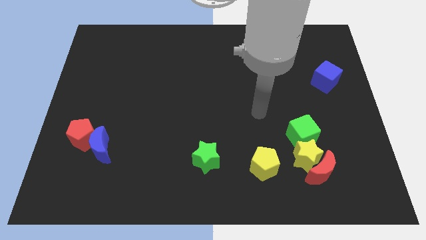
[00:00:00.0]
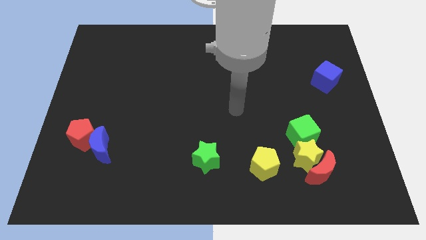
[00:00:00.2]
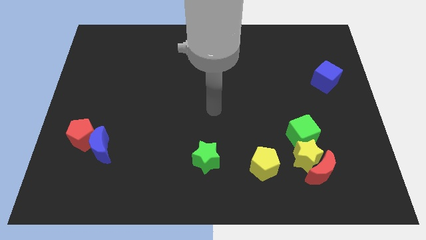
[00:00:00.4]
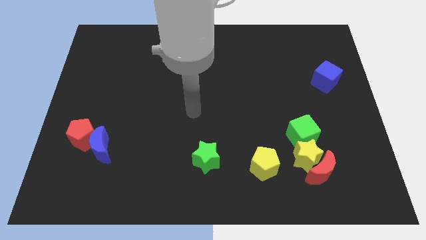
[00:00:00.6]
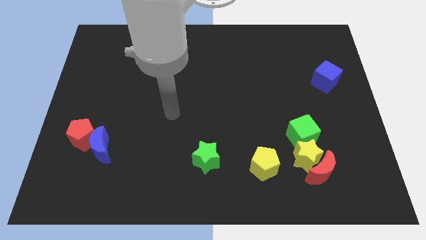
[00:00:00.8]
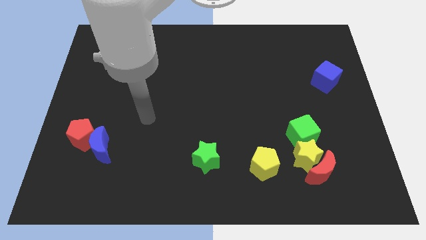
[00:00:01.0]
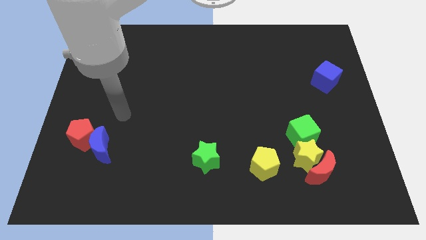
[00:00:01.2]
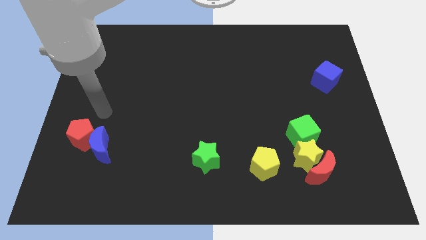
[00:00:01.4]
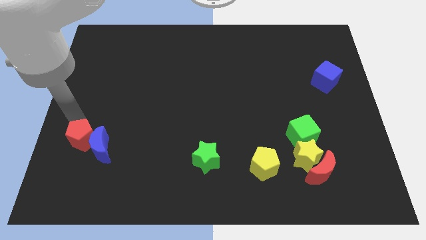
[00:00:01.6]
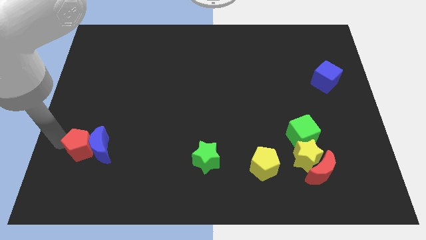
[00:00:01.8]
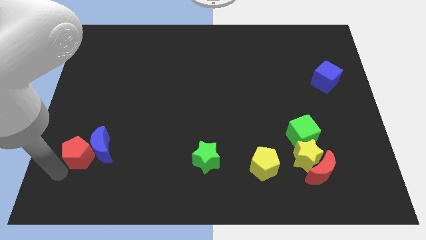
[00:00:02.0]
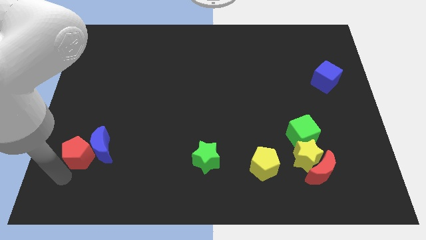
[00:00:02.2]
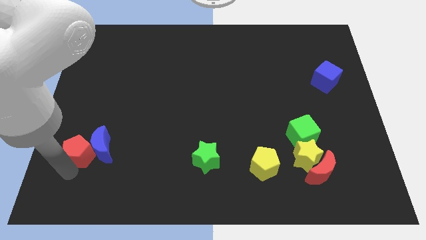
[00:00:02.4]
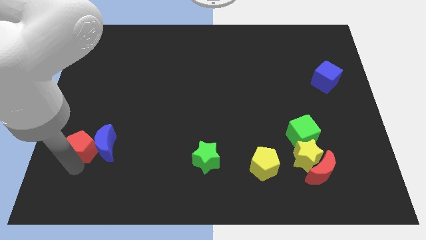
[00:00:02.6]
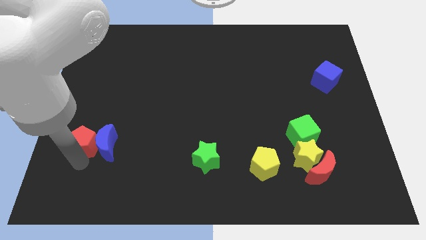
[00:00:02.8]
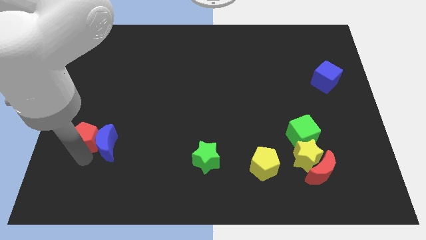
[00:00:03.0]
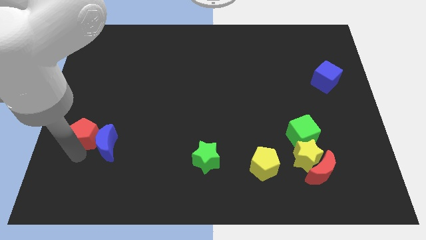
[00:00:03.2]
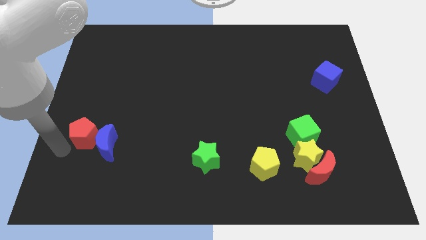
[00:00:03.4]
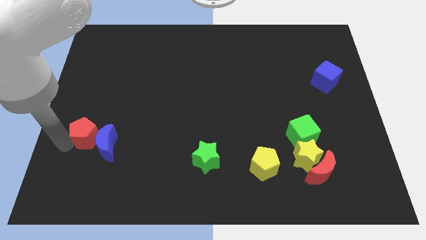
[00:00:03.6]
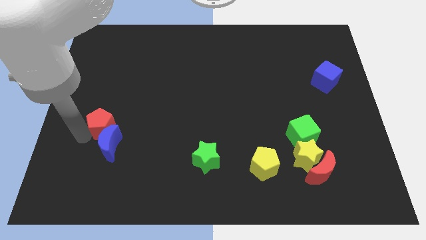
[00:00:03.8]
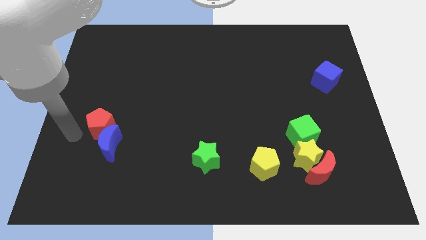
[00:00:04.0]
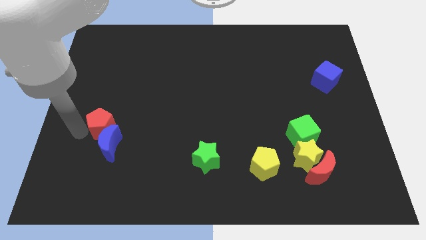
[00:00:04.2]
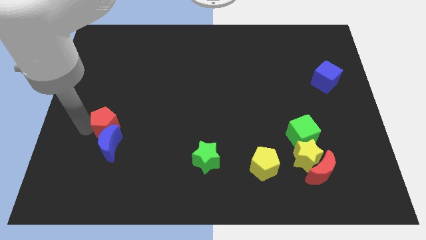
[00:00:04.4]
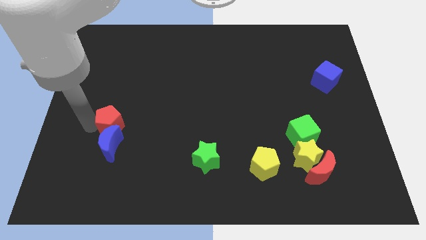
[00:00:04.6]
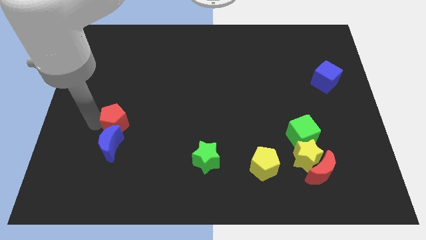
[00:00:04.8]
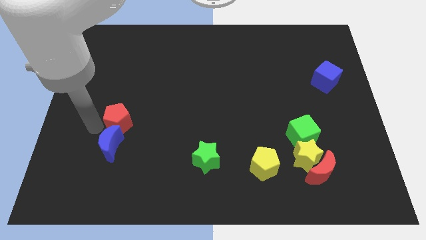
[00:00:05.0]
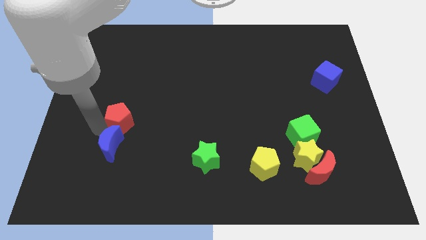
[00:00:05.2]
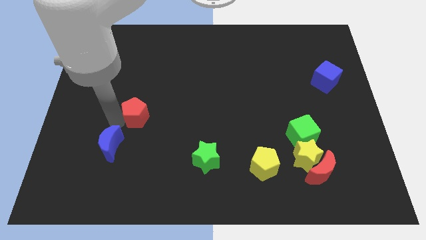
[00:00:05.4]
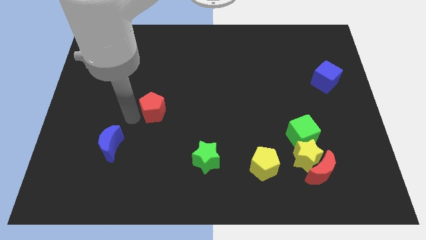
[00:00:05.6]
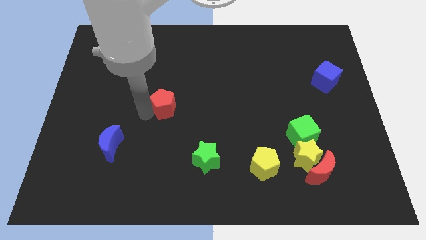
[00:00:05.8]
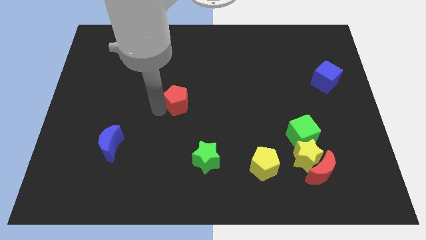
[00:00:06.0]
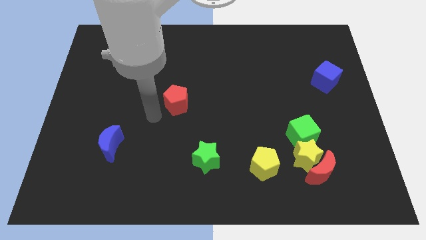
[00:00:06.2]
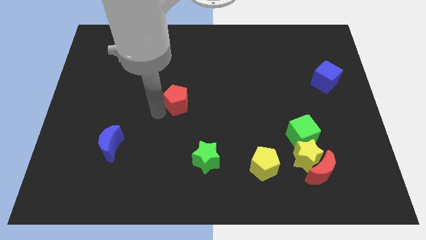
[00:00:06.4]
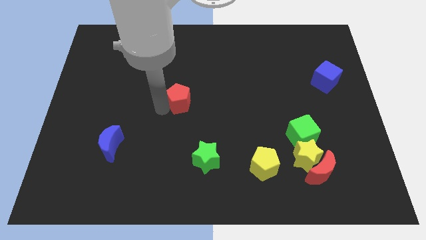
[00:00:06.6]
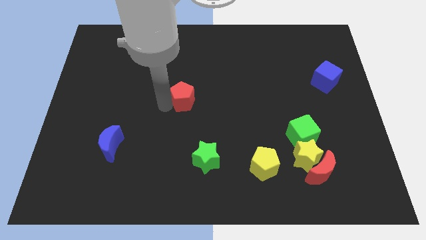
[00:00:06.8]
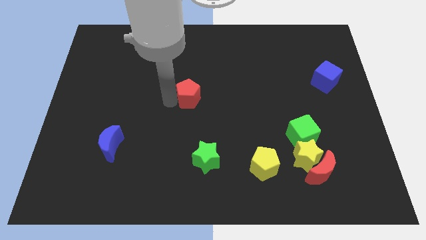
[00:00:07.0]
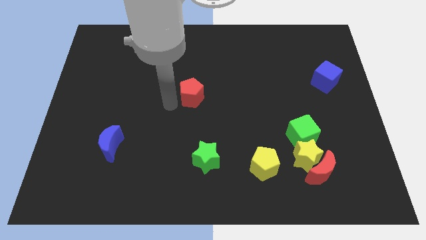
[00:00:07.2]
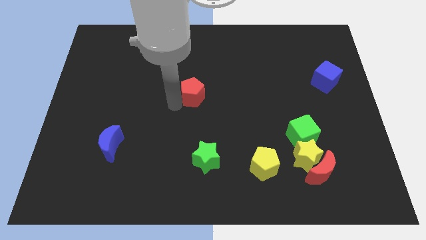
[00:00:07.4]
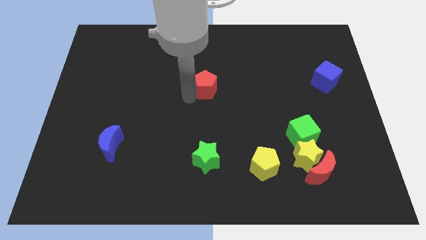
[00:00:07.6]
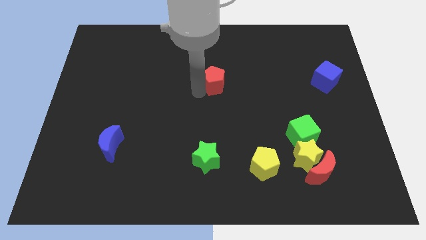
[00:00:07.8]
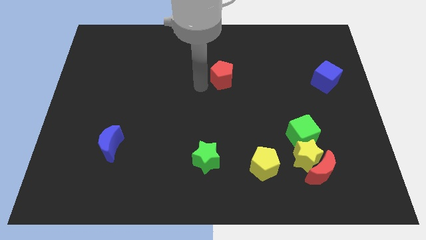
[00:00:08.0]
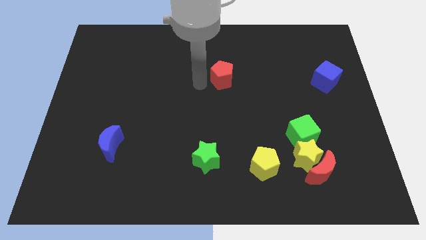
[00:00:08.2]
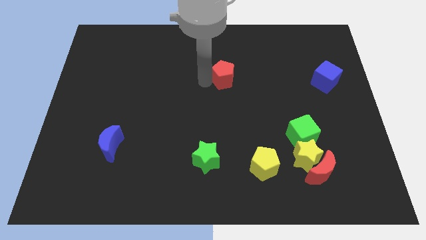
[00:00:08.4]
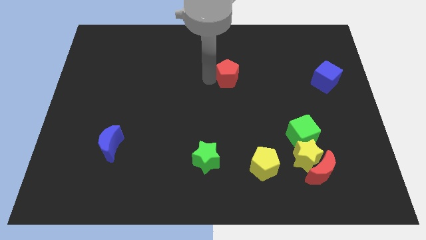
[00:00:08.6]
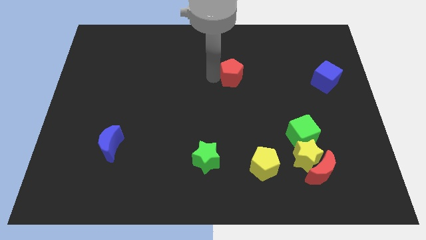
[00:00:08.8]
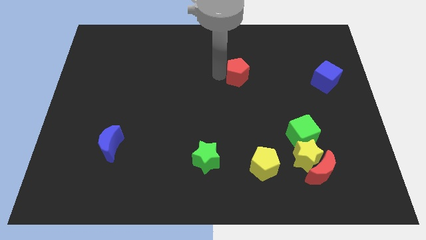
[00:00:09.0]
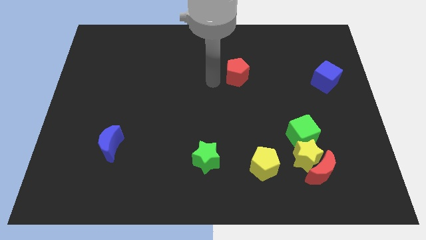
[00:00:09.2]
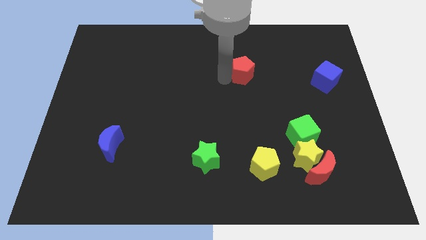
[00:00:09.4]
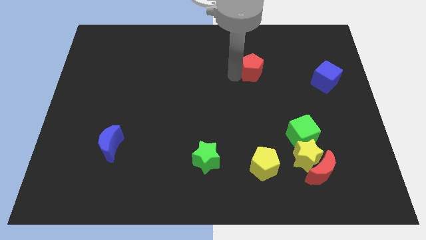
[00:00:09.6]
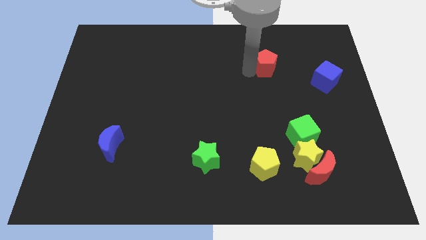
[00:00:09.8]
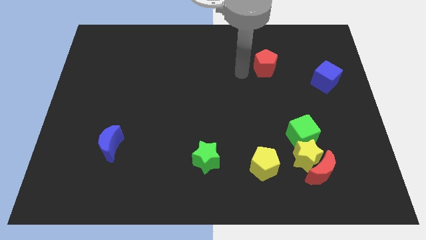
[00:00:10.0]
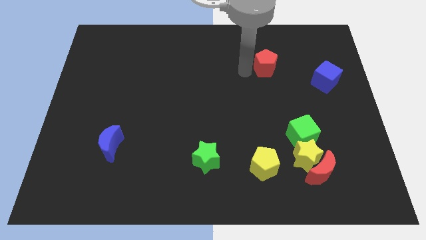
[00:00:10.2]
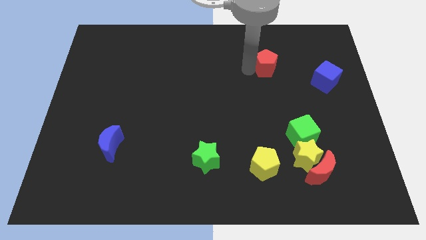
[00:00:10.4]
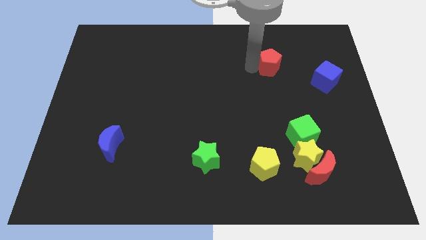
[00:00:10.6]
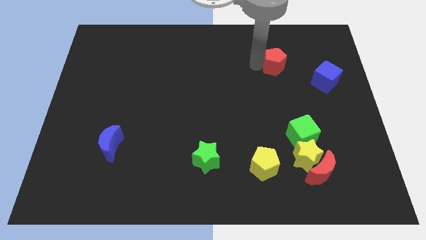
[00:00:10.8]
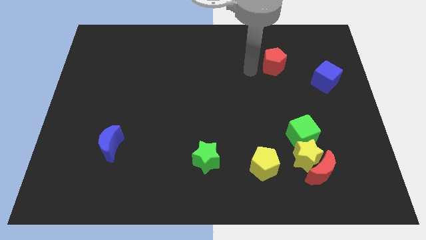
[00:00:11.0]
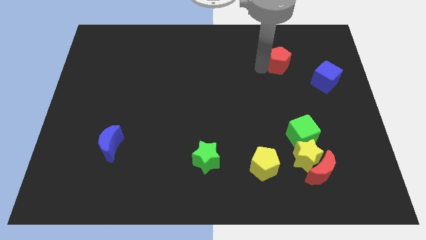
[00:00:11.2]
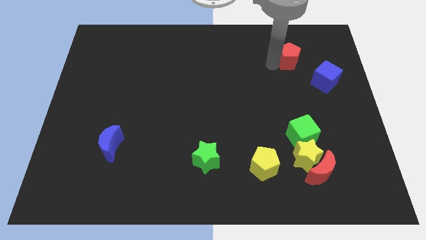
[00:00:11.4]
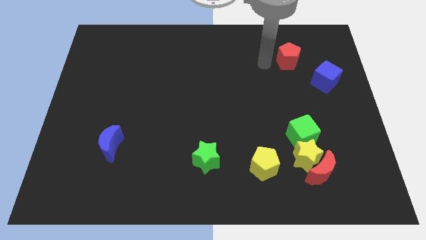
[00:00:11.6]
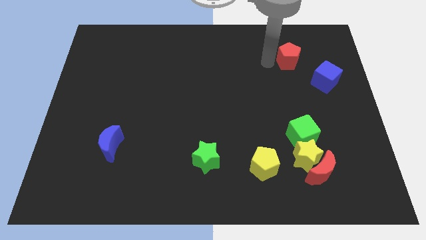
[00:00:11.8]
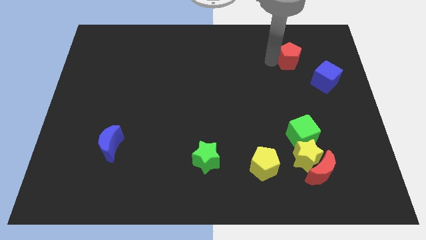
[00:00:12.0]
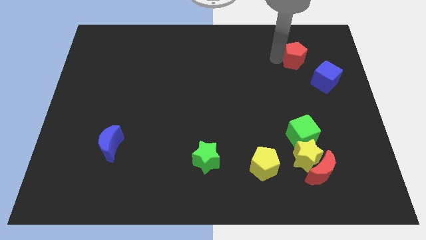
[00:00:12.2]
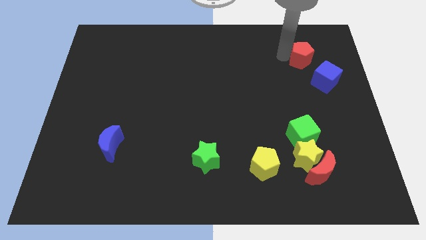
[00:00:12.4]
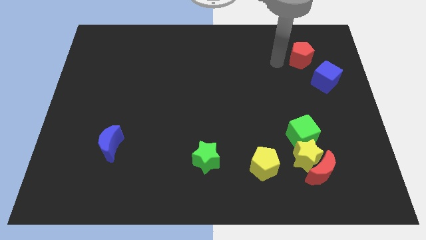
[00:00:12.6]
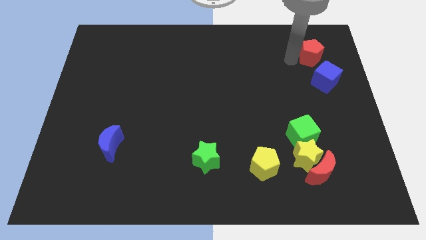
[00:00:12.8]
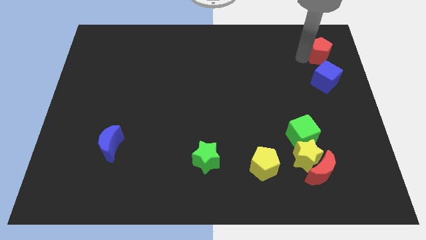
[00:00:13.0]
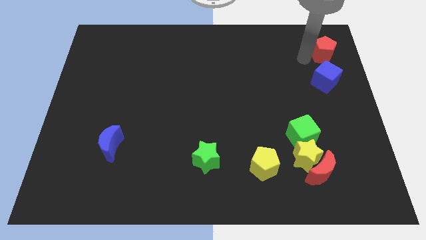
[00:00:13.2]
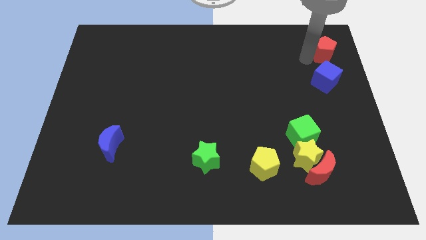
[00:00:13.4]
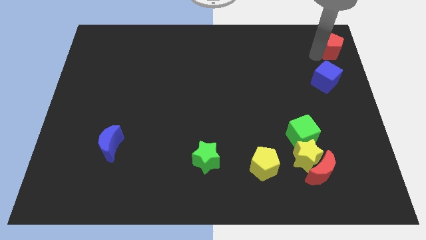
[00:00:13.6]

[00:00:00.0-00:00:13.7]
slide the red pentagon to the top right of the board
